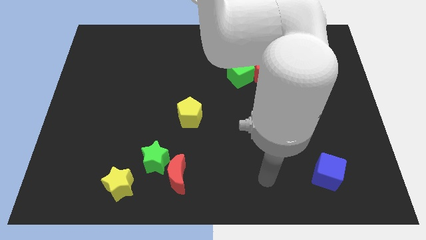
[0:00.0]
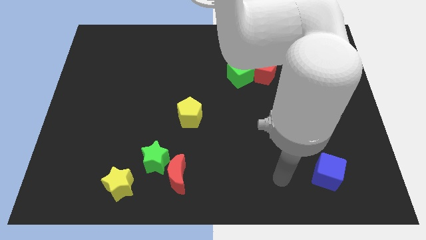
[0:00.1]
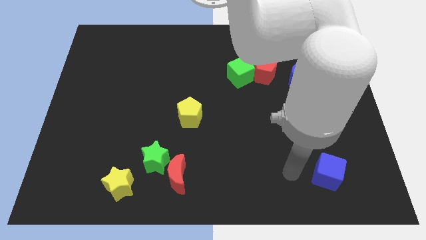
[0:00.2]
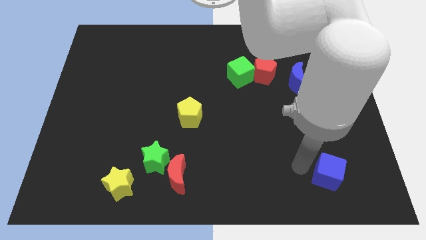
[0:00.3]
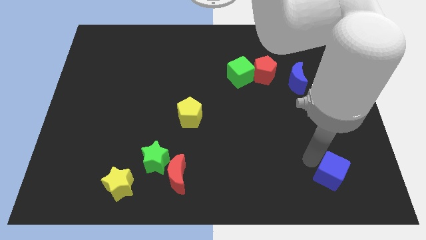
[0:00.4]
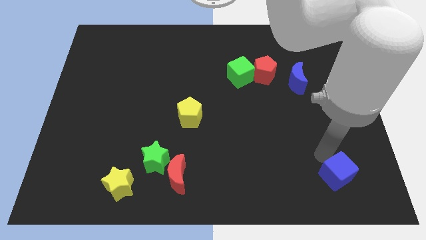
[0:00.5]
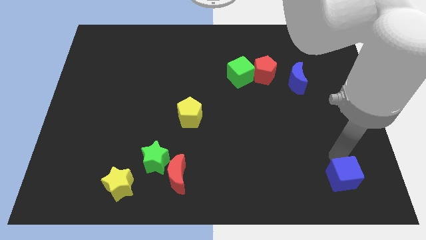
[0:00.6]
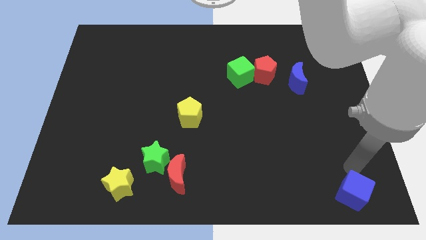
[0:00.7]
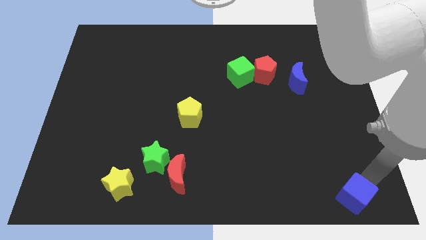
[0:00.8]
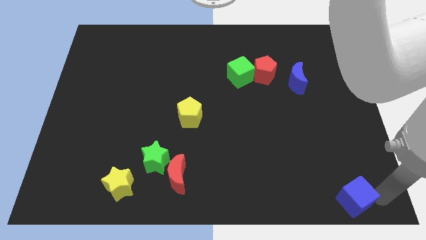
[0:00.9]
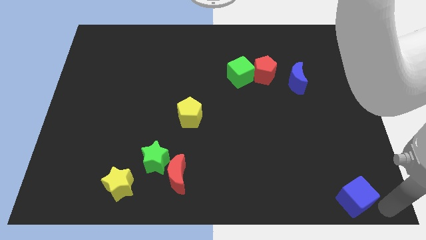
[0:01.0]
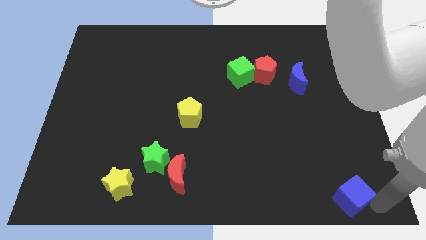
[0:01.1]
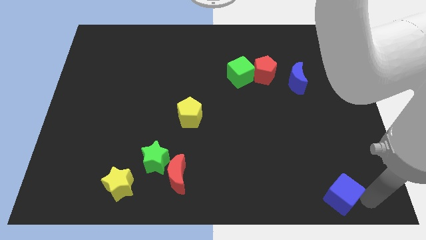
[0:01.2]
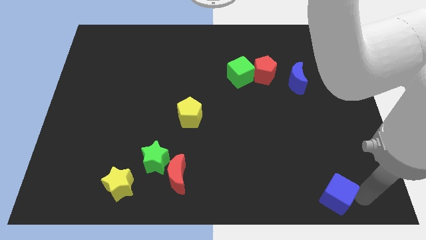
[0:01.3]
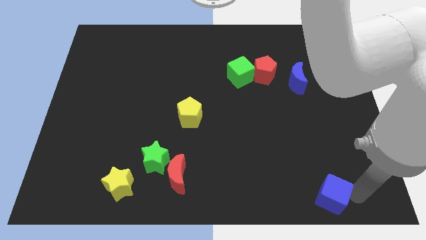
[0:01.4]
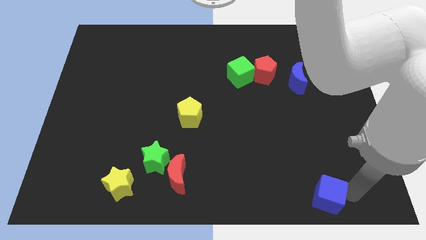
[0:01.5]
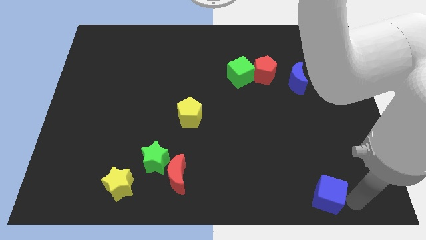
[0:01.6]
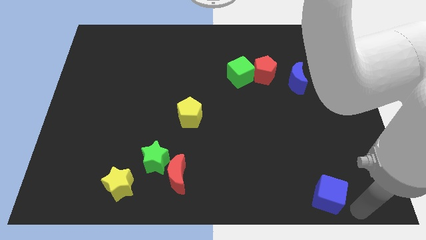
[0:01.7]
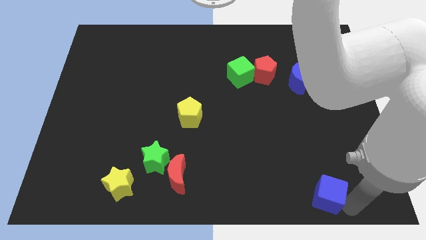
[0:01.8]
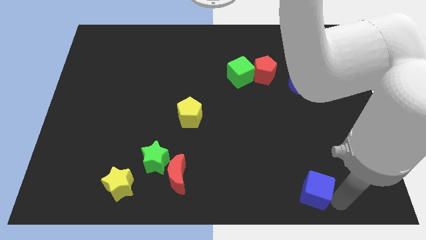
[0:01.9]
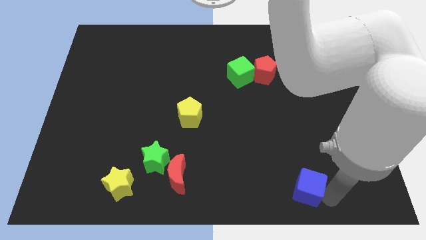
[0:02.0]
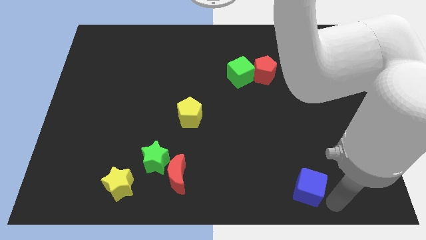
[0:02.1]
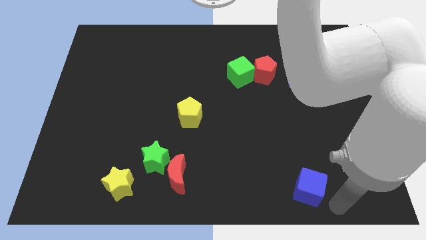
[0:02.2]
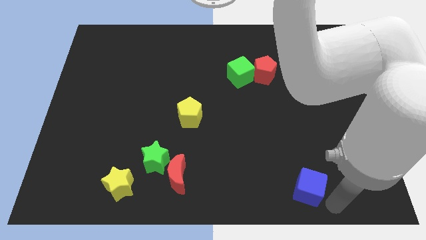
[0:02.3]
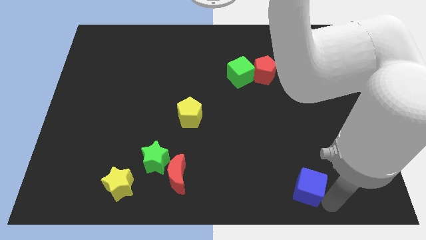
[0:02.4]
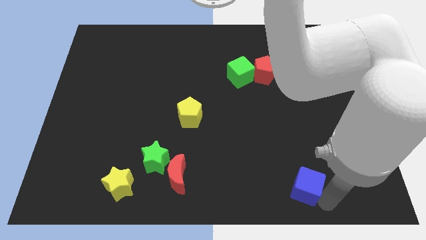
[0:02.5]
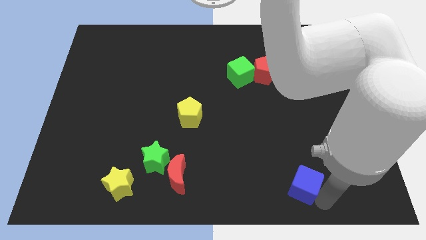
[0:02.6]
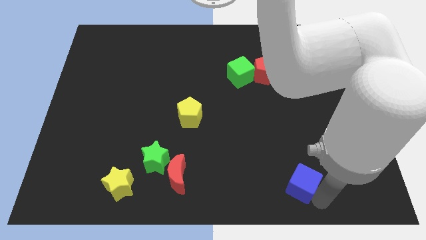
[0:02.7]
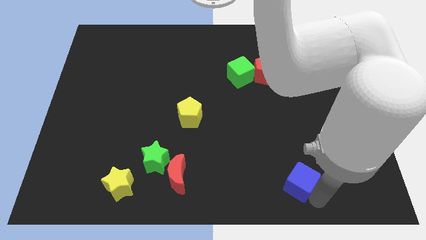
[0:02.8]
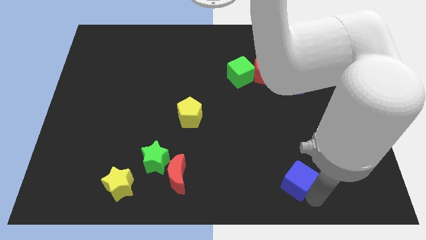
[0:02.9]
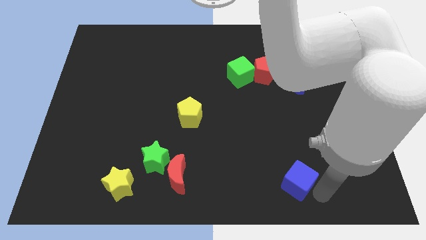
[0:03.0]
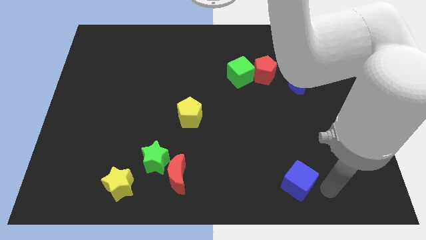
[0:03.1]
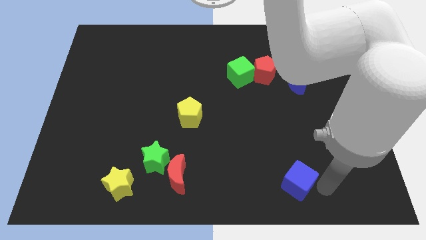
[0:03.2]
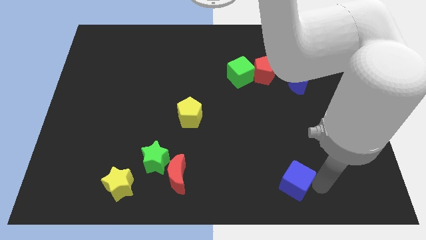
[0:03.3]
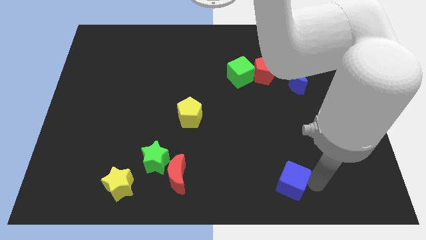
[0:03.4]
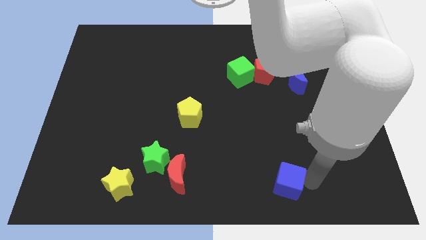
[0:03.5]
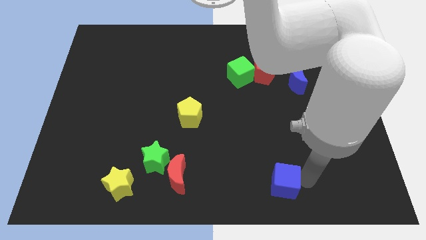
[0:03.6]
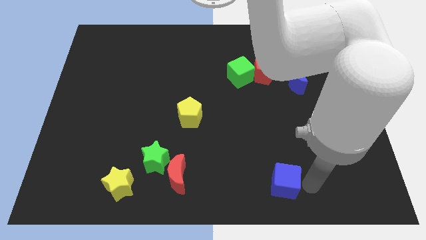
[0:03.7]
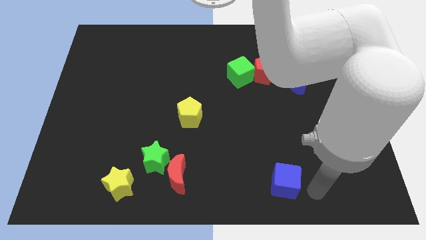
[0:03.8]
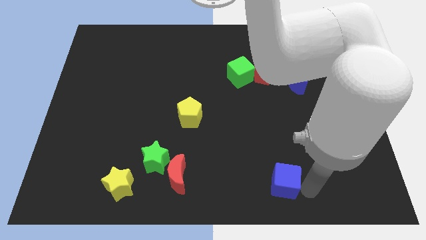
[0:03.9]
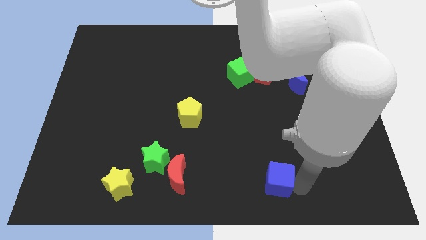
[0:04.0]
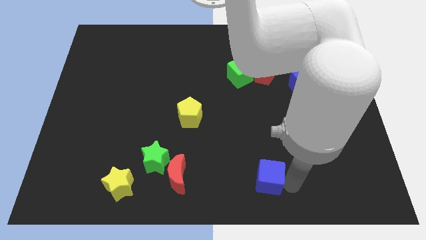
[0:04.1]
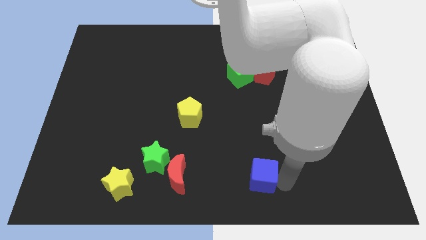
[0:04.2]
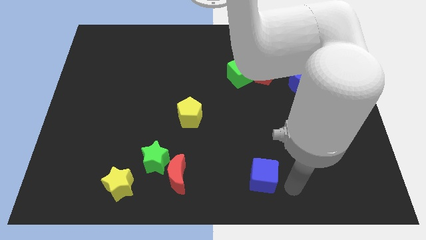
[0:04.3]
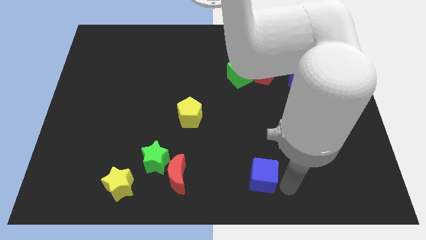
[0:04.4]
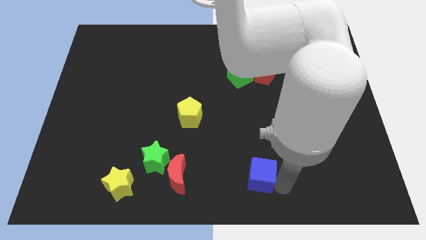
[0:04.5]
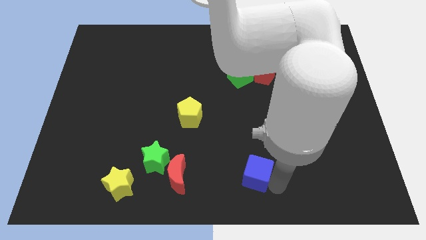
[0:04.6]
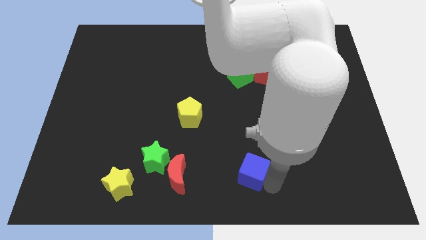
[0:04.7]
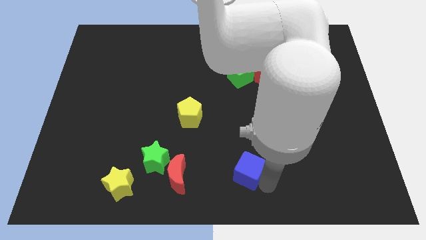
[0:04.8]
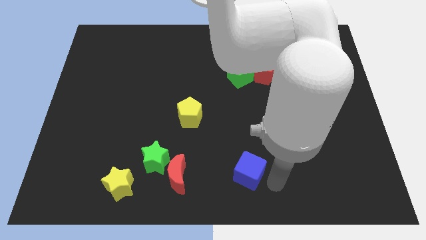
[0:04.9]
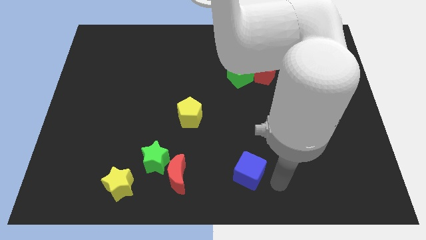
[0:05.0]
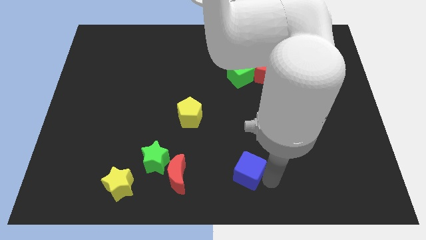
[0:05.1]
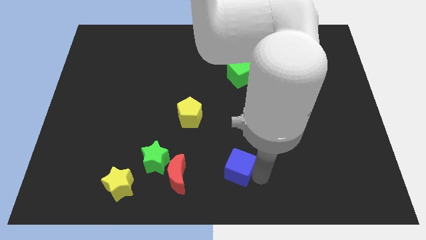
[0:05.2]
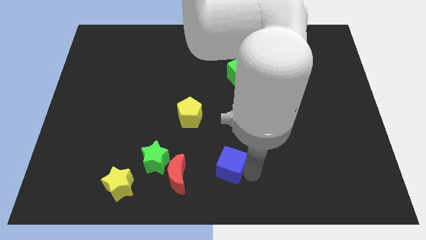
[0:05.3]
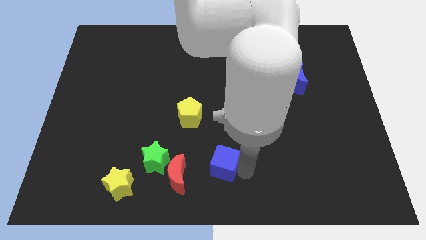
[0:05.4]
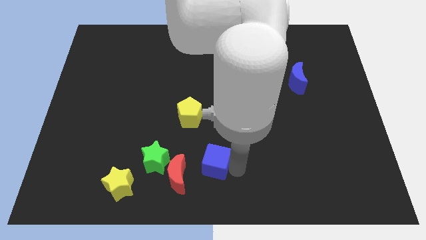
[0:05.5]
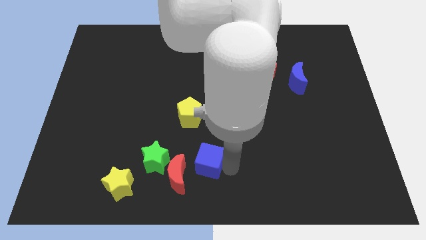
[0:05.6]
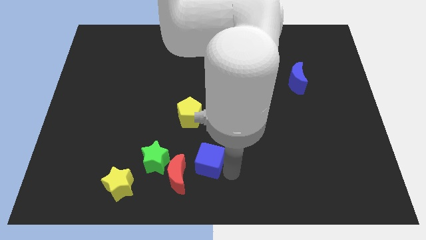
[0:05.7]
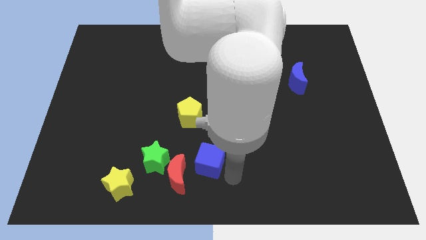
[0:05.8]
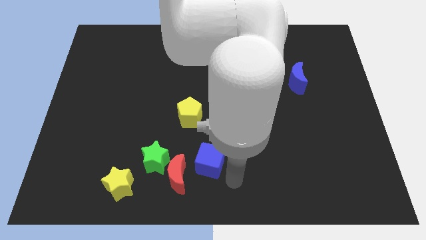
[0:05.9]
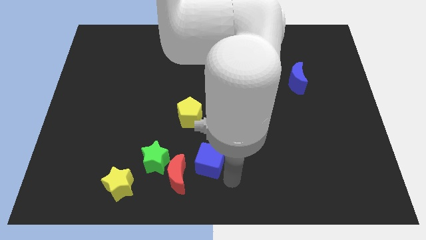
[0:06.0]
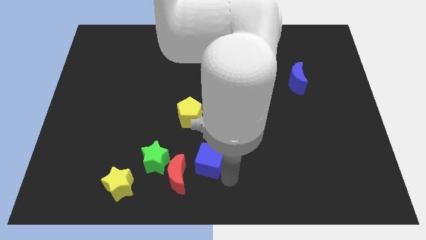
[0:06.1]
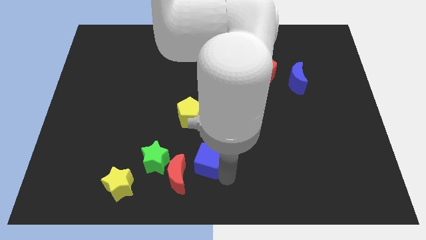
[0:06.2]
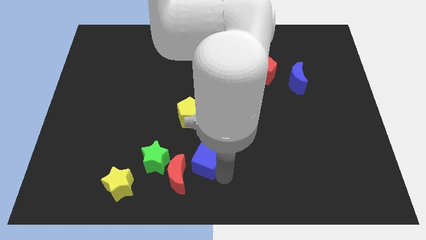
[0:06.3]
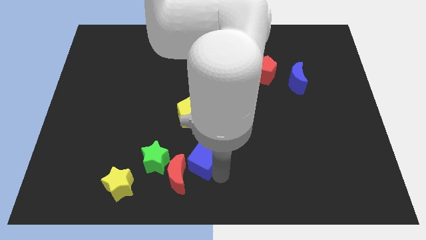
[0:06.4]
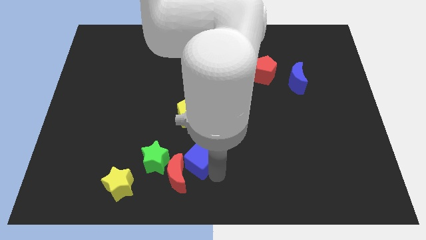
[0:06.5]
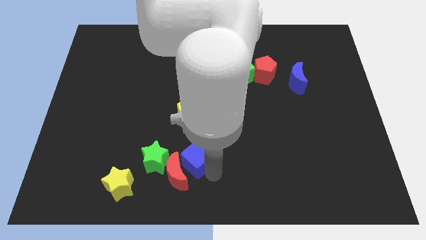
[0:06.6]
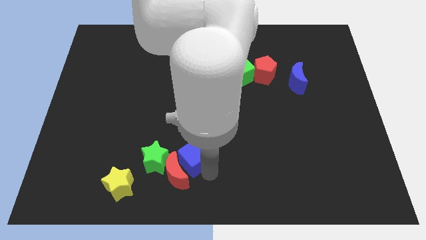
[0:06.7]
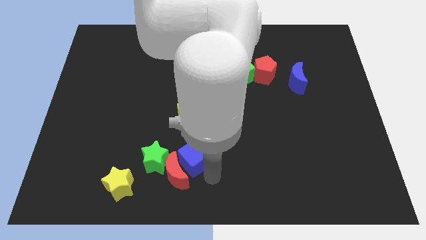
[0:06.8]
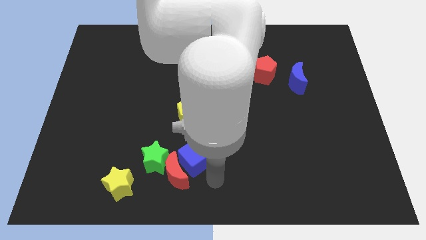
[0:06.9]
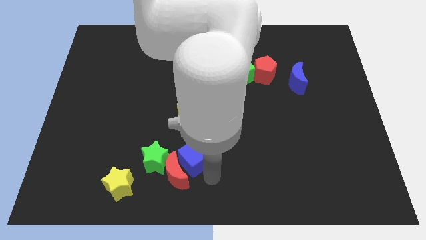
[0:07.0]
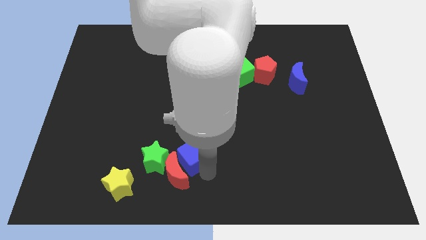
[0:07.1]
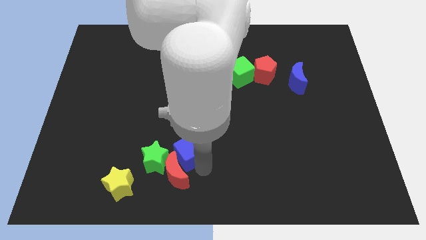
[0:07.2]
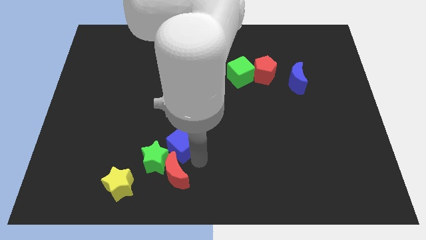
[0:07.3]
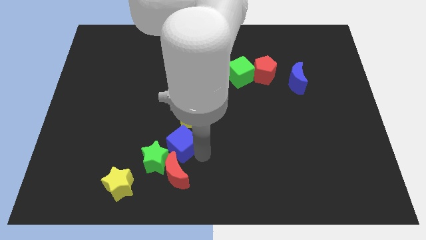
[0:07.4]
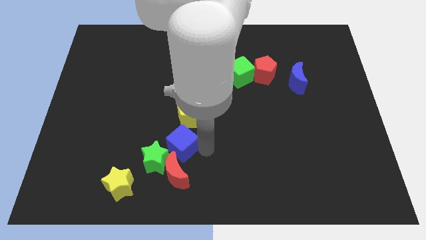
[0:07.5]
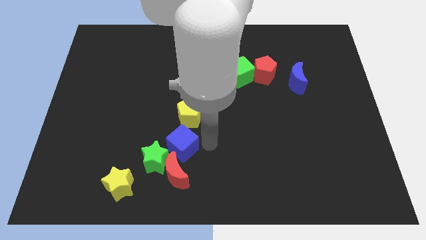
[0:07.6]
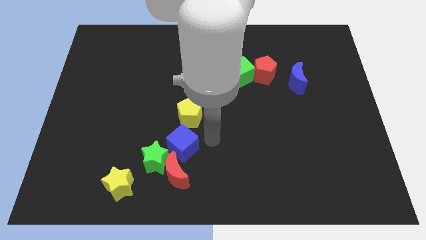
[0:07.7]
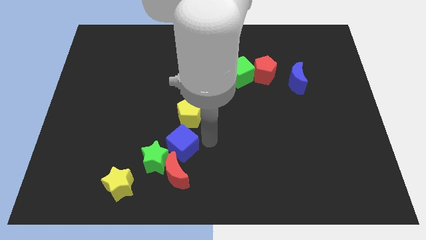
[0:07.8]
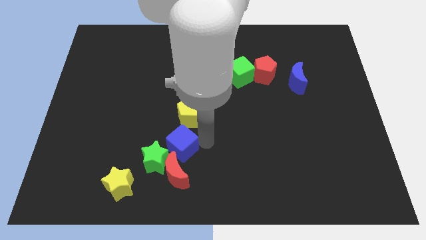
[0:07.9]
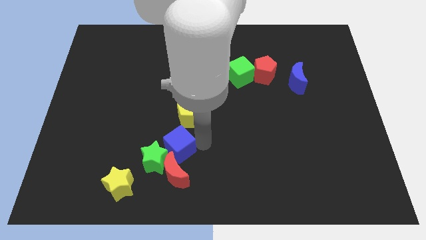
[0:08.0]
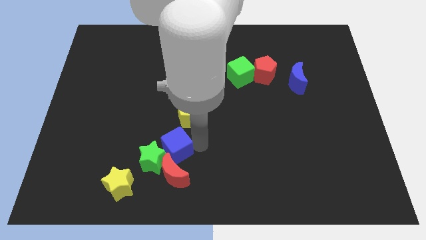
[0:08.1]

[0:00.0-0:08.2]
move the blue cube diagonally up and to the left of the red moon
